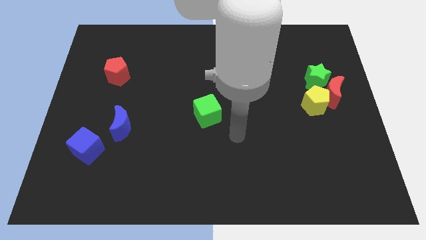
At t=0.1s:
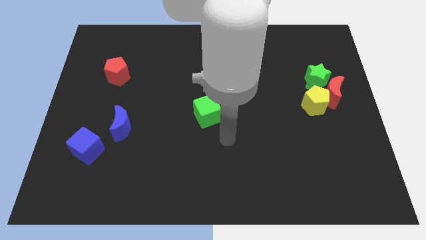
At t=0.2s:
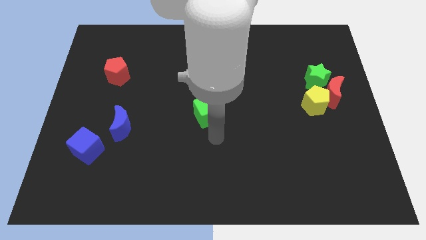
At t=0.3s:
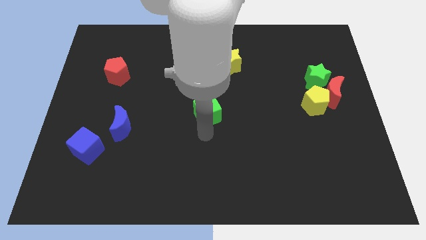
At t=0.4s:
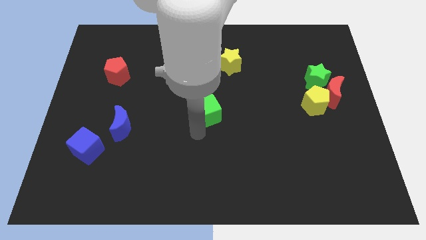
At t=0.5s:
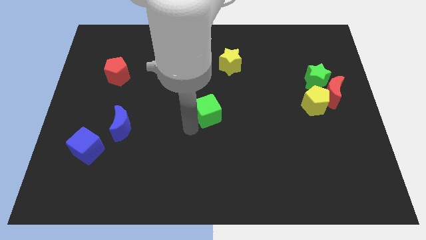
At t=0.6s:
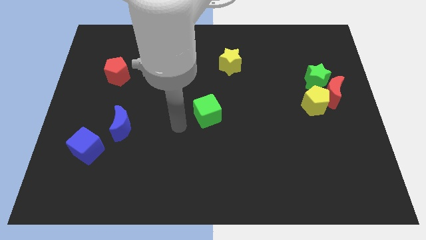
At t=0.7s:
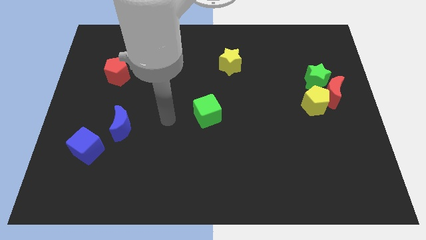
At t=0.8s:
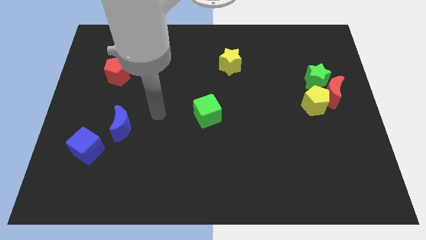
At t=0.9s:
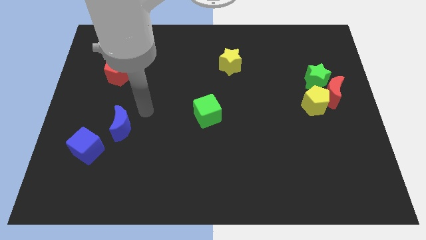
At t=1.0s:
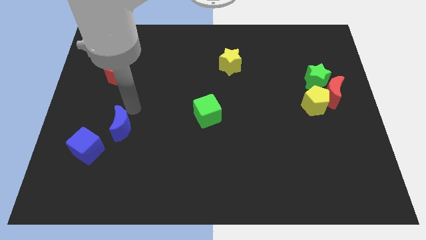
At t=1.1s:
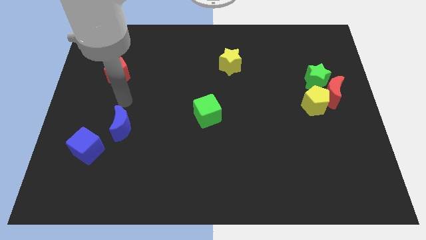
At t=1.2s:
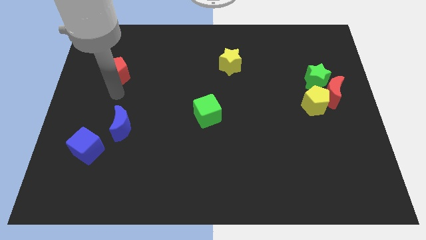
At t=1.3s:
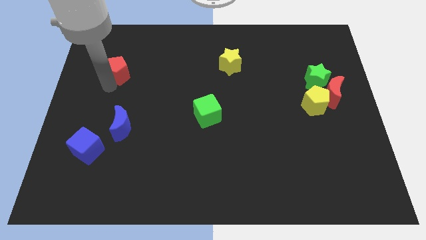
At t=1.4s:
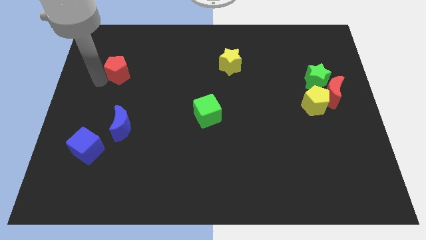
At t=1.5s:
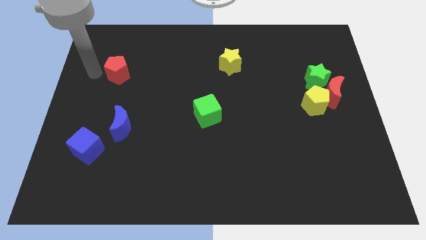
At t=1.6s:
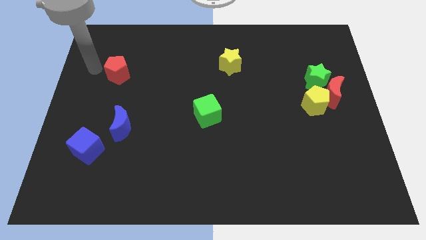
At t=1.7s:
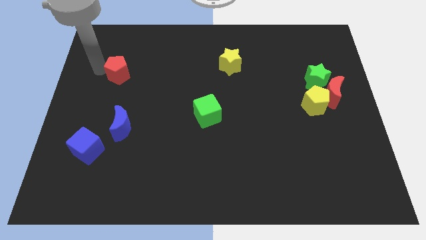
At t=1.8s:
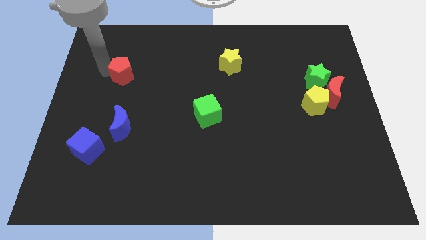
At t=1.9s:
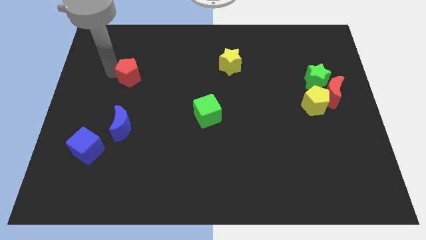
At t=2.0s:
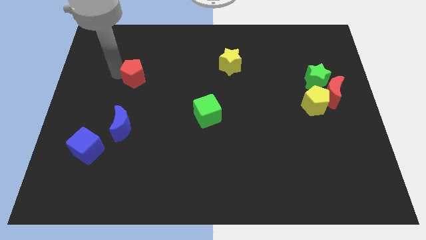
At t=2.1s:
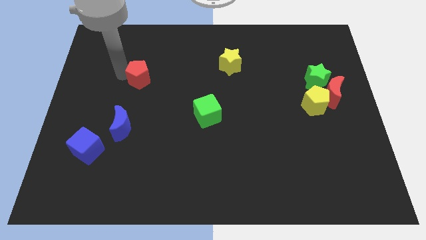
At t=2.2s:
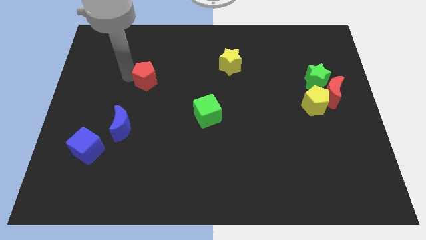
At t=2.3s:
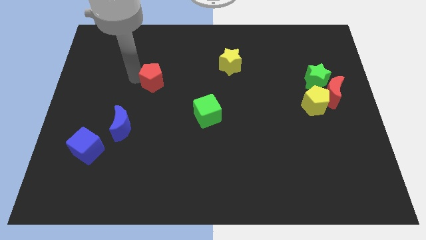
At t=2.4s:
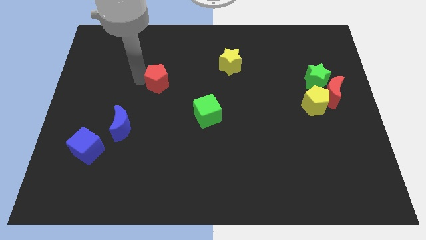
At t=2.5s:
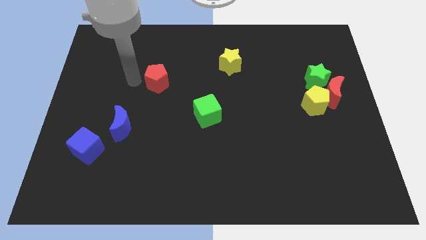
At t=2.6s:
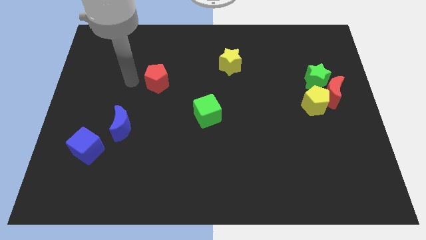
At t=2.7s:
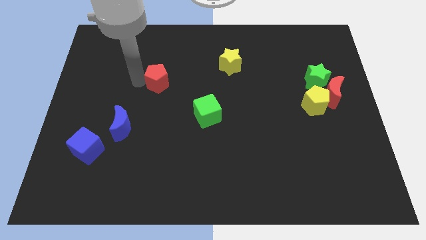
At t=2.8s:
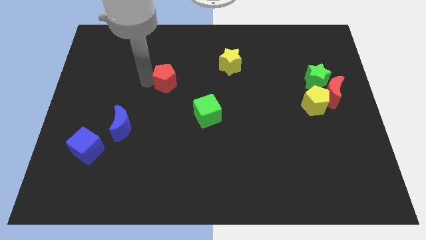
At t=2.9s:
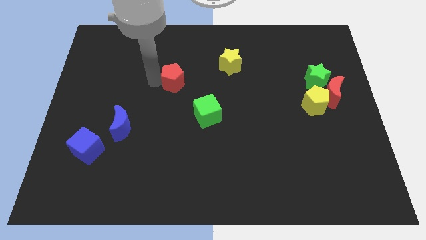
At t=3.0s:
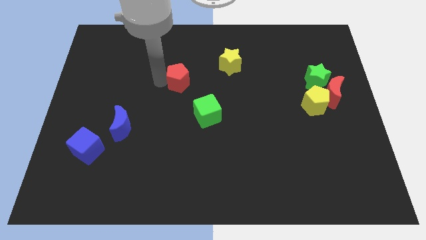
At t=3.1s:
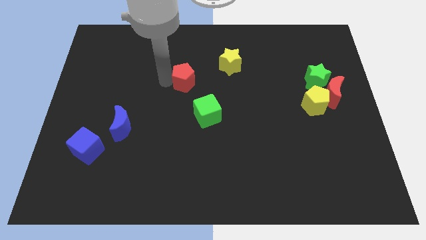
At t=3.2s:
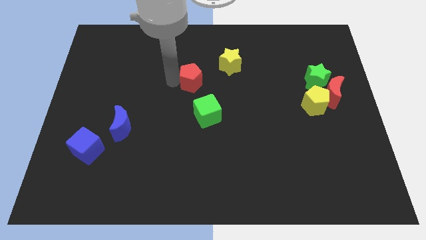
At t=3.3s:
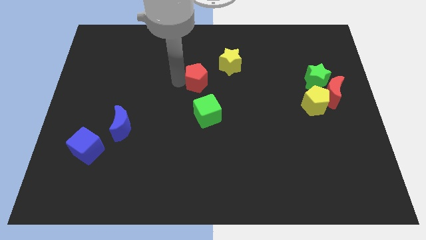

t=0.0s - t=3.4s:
push the red pentagon right

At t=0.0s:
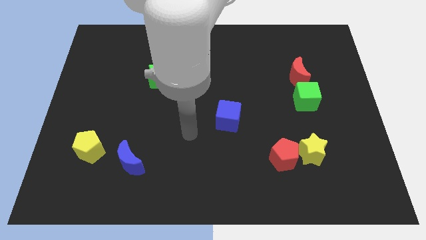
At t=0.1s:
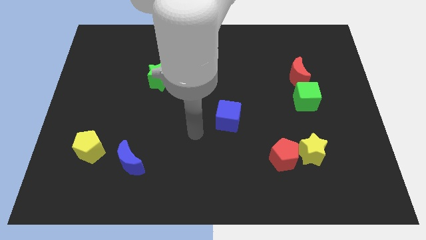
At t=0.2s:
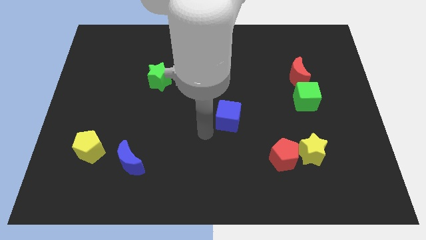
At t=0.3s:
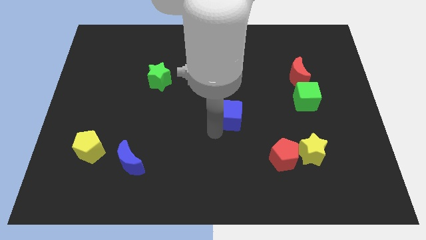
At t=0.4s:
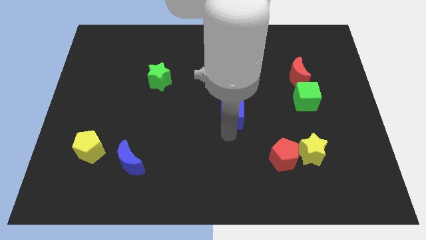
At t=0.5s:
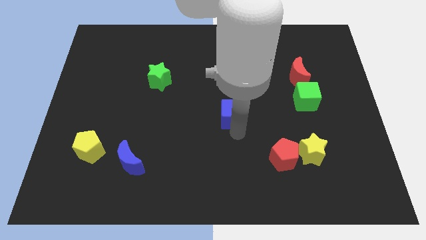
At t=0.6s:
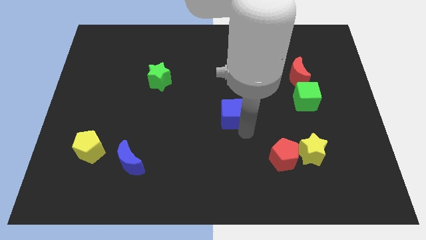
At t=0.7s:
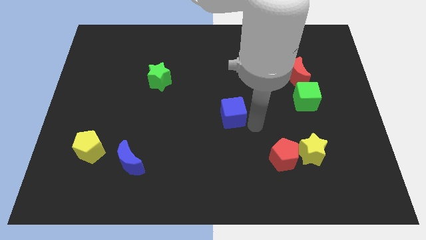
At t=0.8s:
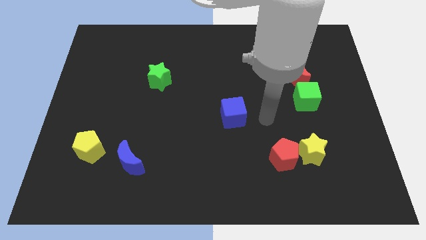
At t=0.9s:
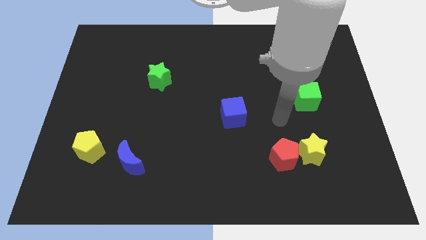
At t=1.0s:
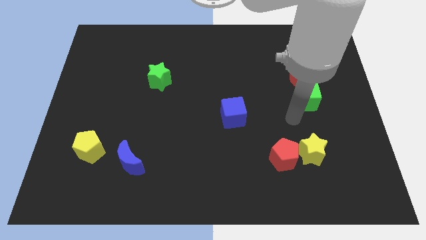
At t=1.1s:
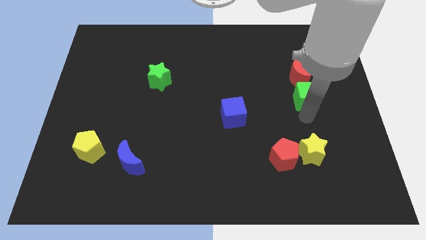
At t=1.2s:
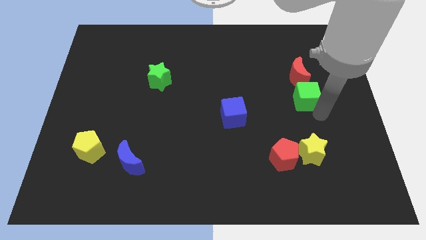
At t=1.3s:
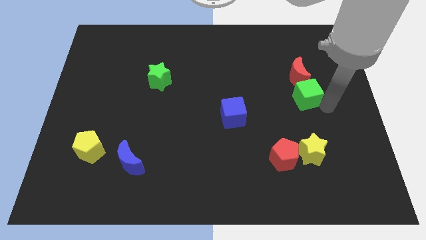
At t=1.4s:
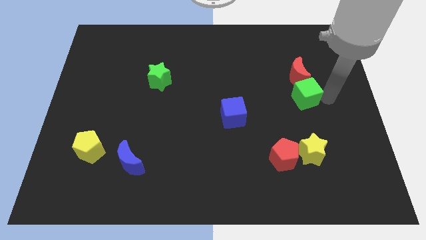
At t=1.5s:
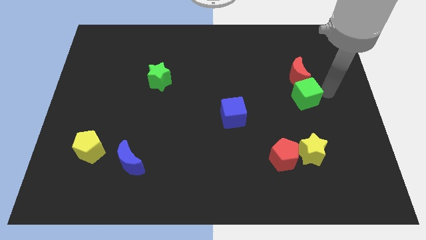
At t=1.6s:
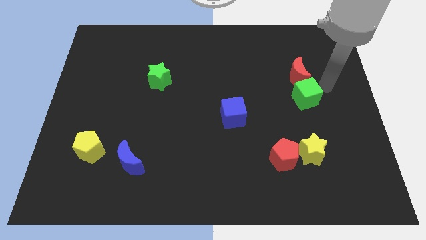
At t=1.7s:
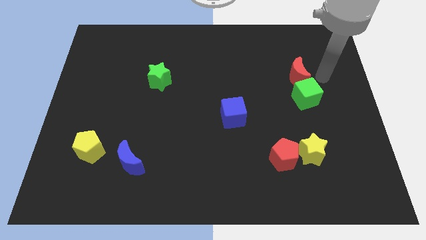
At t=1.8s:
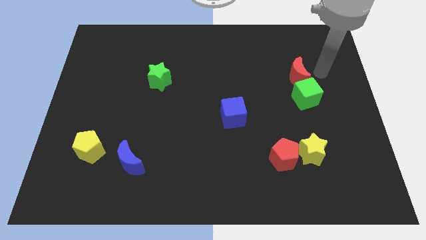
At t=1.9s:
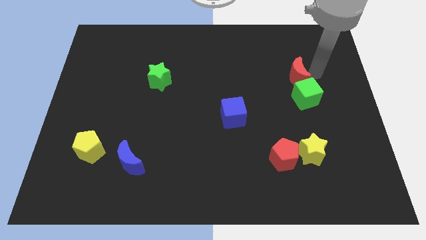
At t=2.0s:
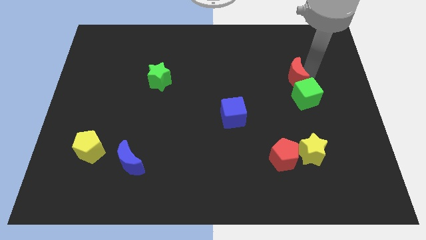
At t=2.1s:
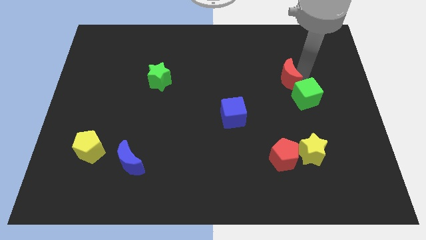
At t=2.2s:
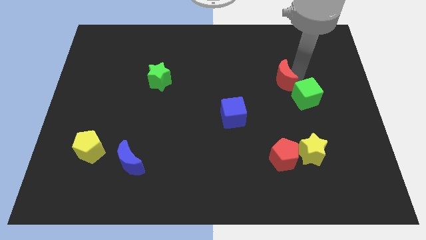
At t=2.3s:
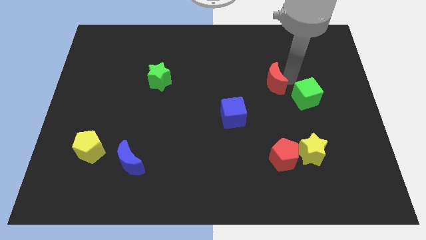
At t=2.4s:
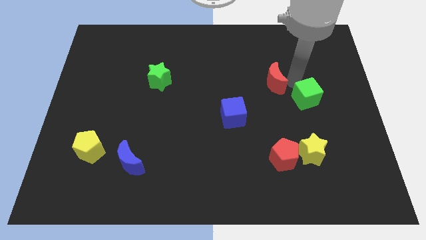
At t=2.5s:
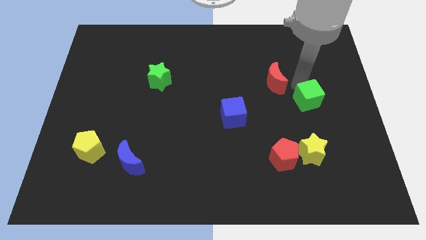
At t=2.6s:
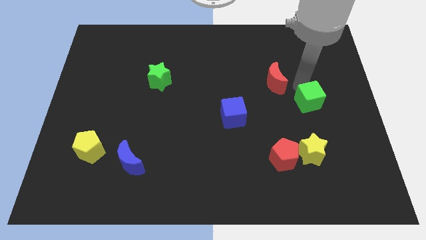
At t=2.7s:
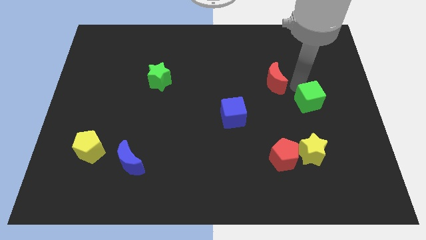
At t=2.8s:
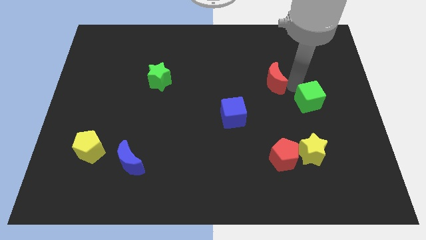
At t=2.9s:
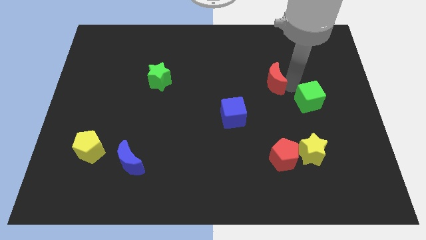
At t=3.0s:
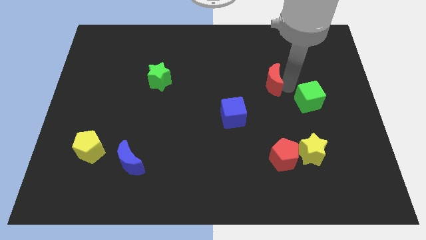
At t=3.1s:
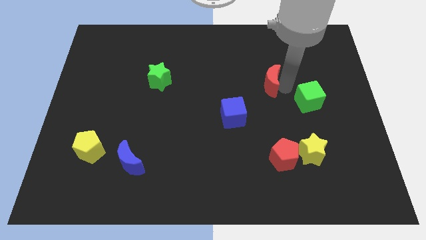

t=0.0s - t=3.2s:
push the red moon to the left a little

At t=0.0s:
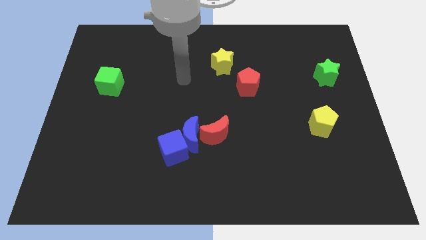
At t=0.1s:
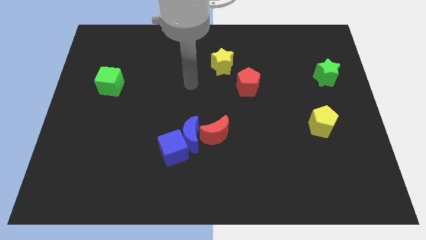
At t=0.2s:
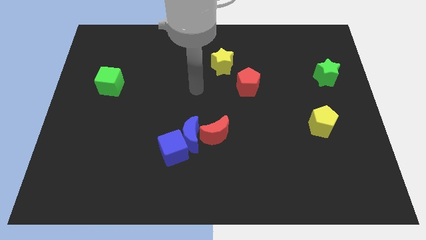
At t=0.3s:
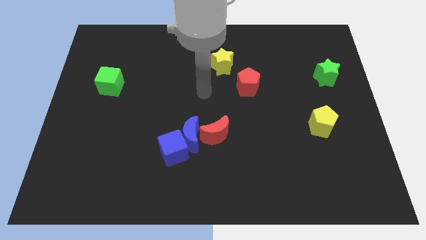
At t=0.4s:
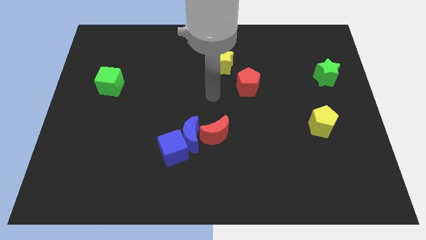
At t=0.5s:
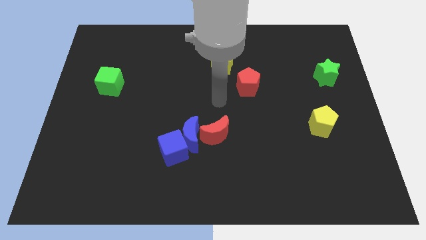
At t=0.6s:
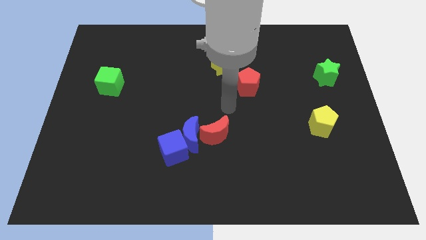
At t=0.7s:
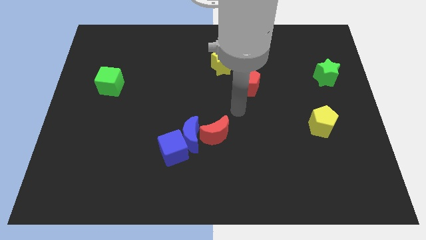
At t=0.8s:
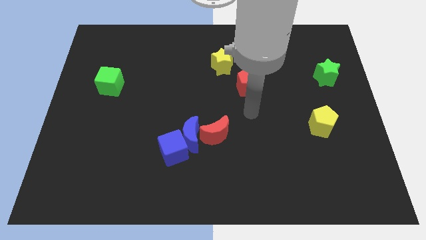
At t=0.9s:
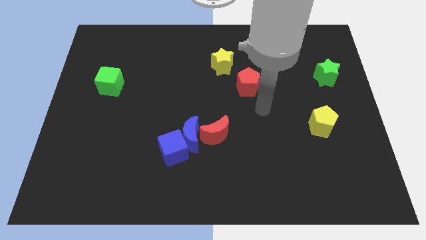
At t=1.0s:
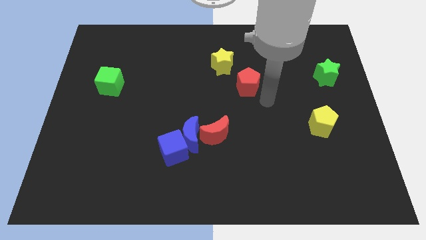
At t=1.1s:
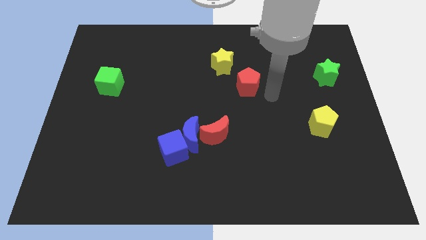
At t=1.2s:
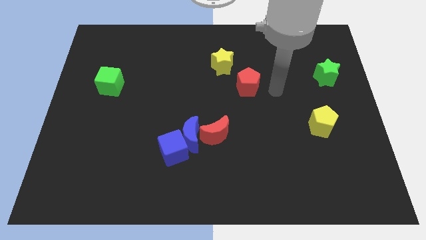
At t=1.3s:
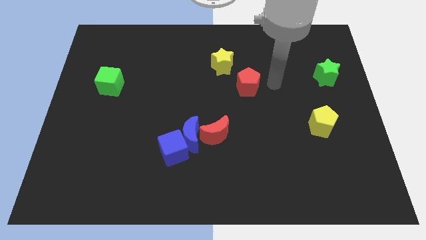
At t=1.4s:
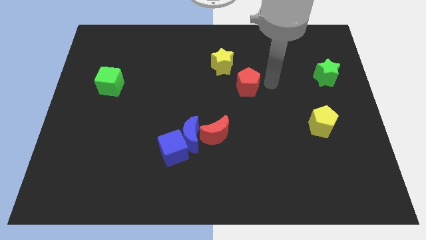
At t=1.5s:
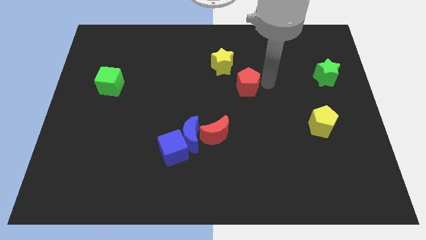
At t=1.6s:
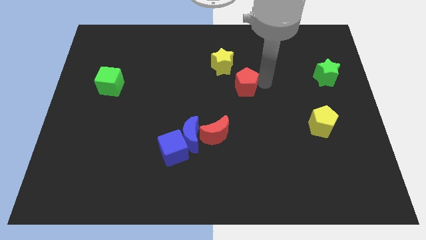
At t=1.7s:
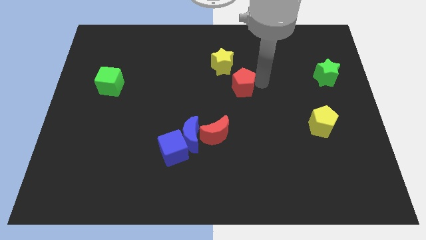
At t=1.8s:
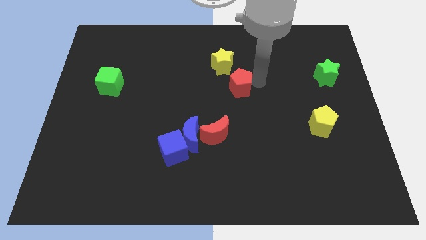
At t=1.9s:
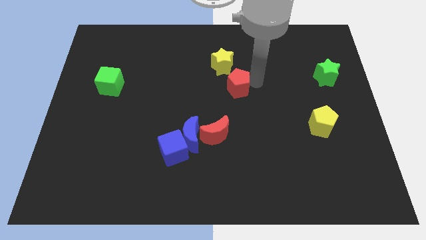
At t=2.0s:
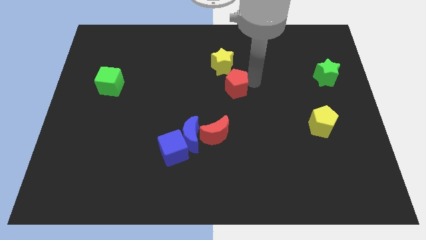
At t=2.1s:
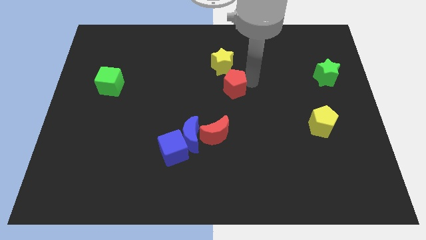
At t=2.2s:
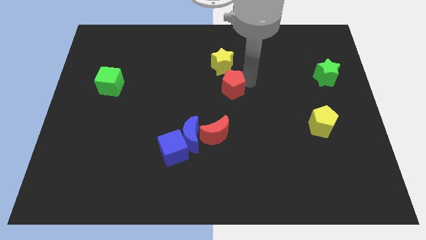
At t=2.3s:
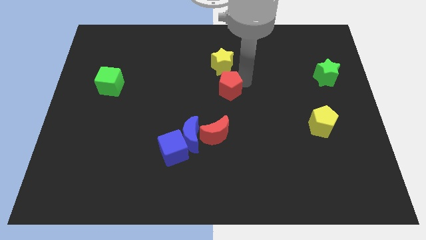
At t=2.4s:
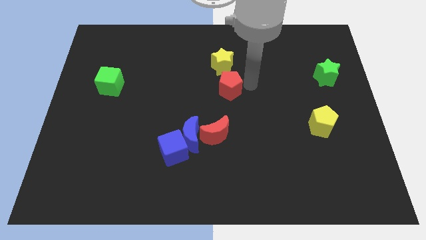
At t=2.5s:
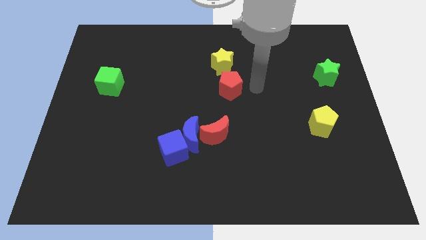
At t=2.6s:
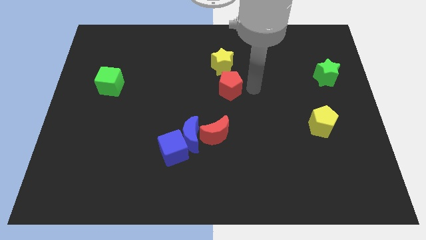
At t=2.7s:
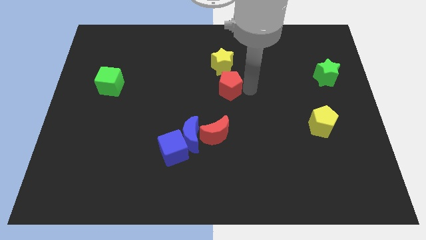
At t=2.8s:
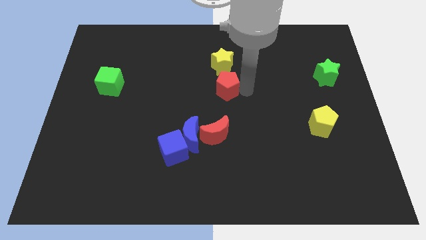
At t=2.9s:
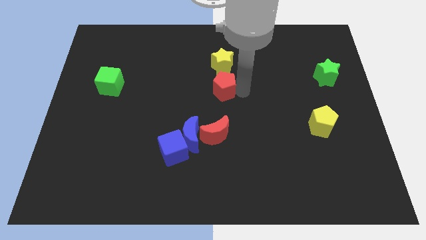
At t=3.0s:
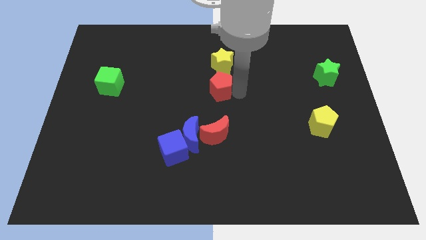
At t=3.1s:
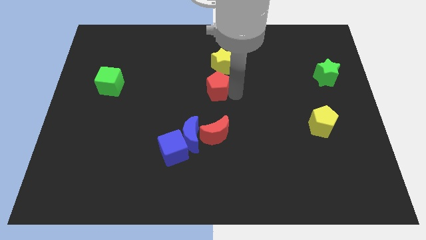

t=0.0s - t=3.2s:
push the red pentagon somewhat to the left